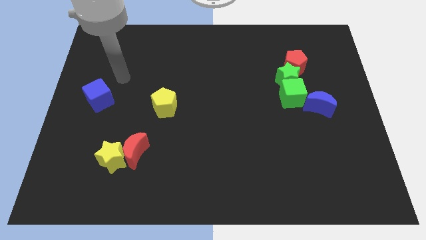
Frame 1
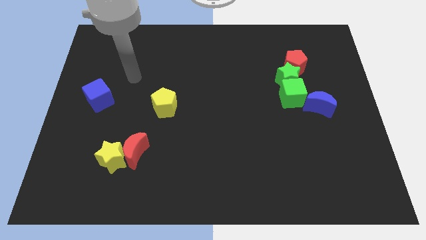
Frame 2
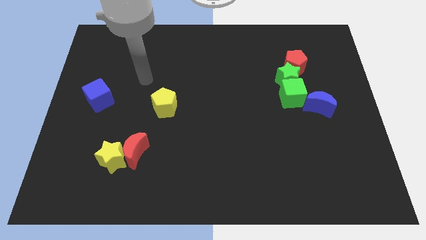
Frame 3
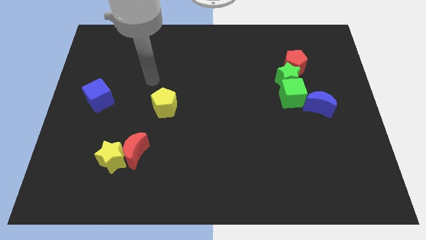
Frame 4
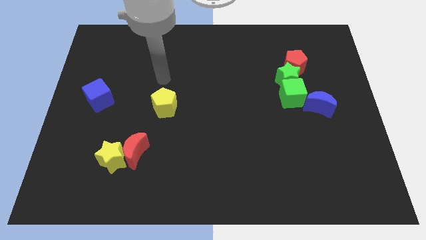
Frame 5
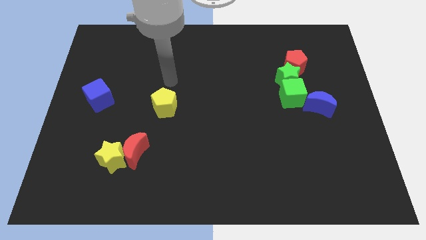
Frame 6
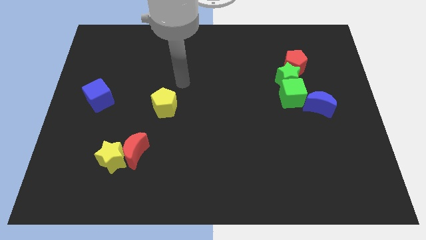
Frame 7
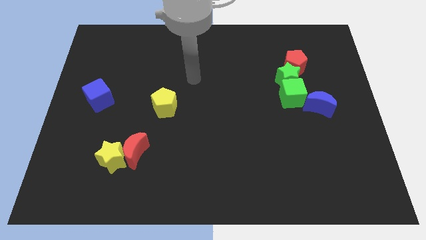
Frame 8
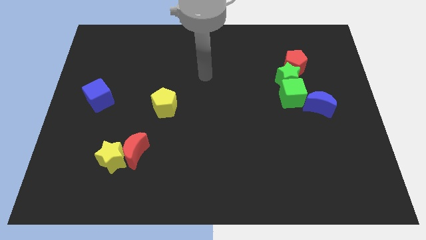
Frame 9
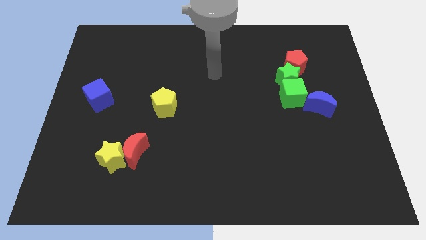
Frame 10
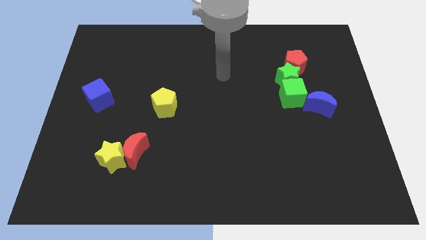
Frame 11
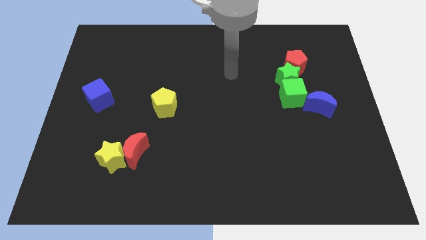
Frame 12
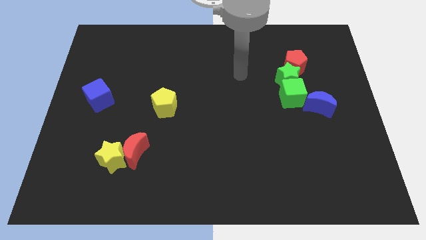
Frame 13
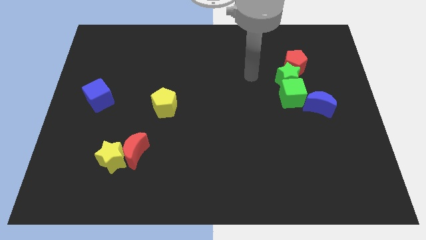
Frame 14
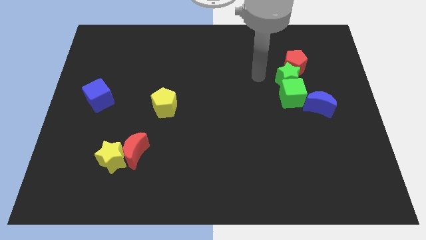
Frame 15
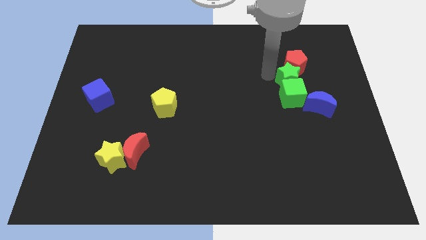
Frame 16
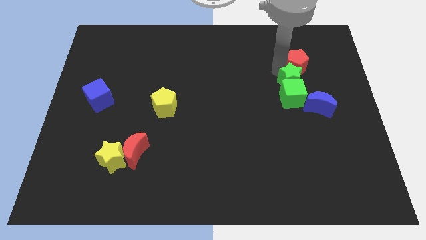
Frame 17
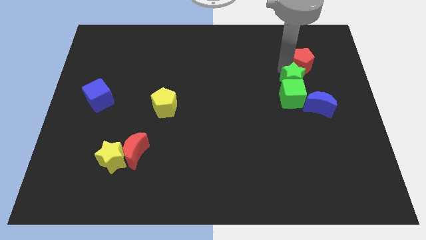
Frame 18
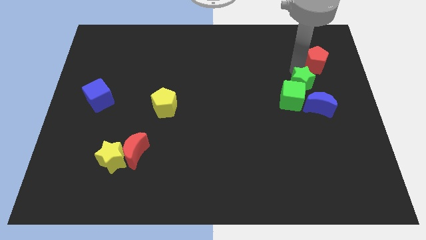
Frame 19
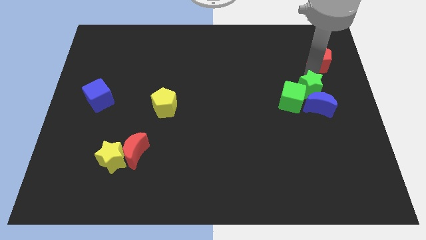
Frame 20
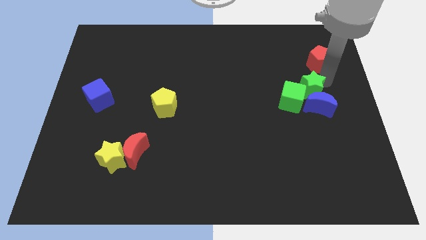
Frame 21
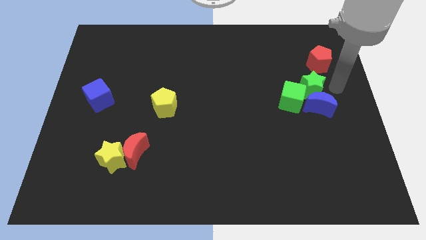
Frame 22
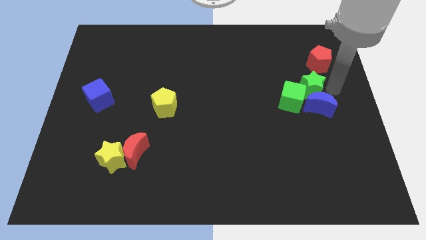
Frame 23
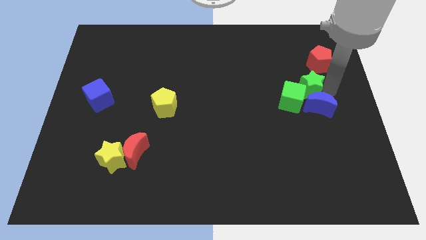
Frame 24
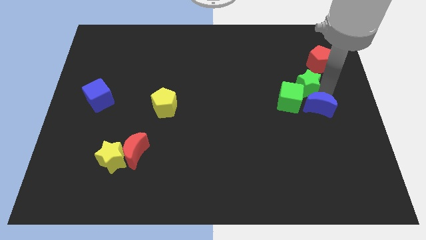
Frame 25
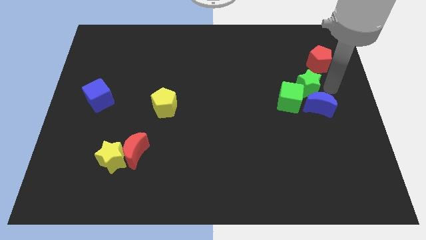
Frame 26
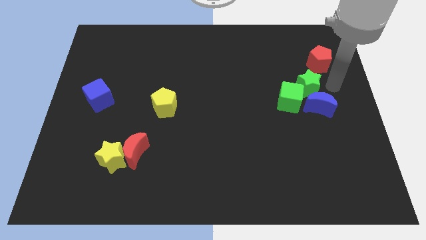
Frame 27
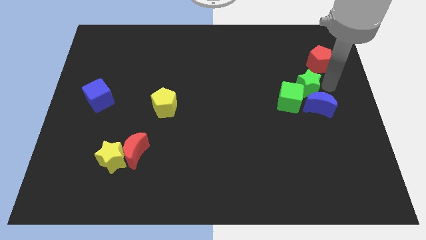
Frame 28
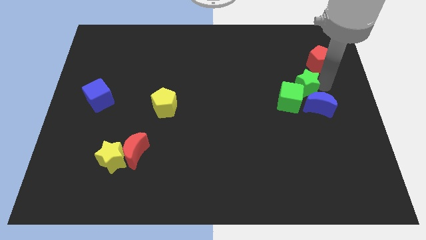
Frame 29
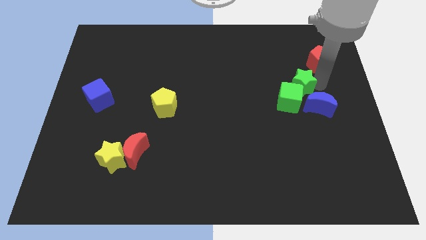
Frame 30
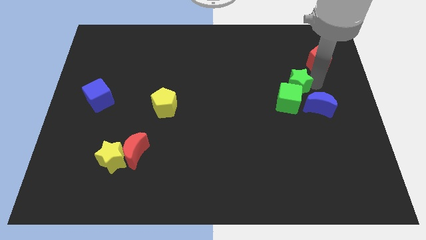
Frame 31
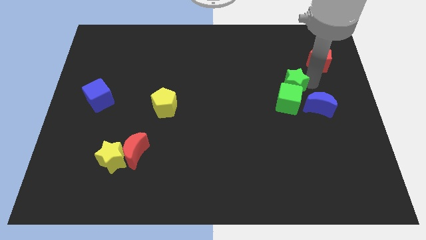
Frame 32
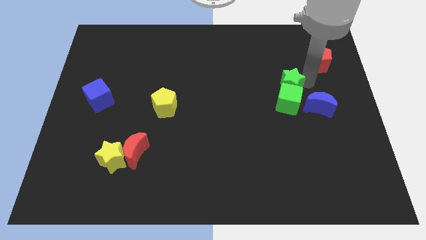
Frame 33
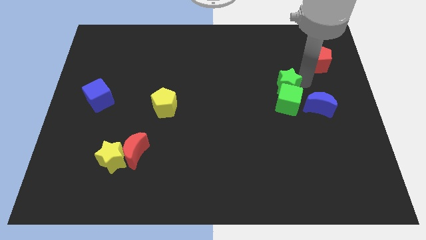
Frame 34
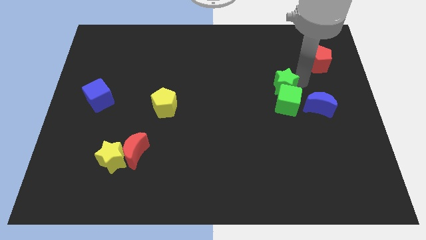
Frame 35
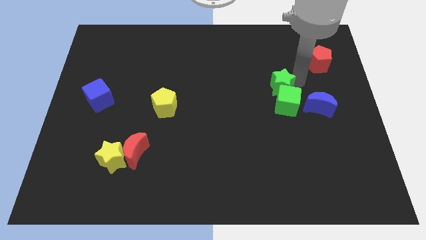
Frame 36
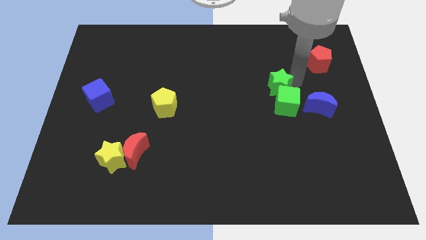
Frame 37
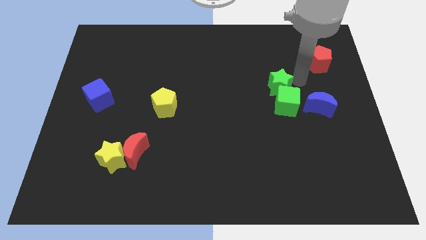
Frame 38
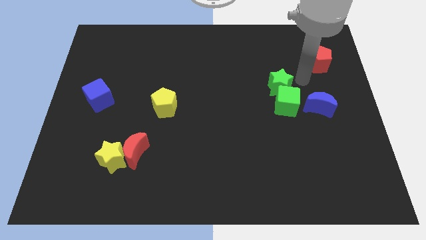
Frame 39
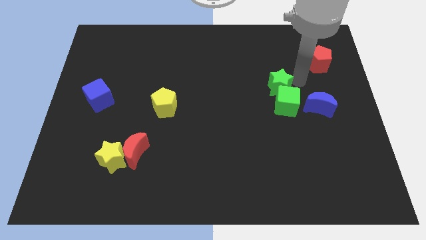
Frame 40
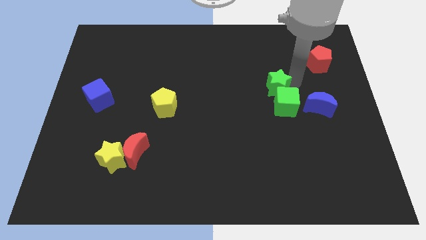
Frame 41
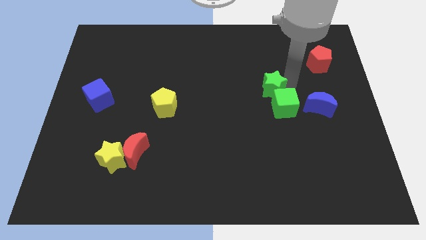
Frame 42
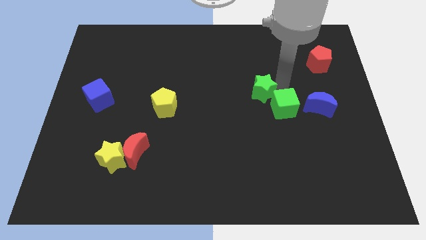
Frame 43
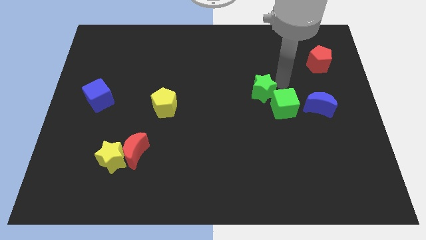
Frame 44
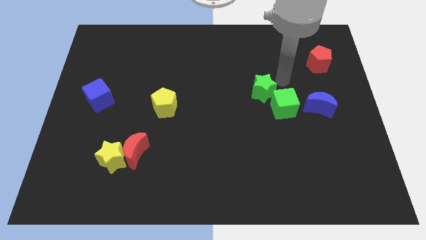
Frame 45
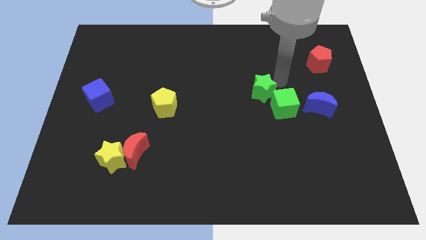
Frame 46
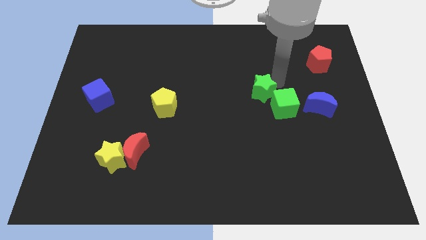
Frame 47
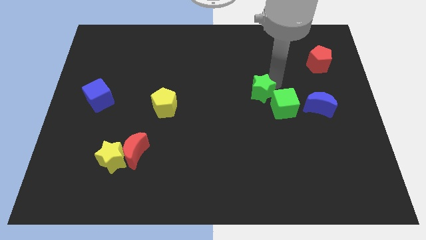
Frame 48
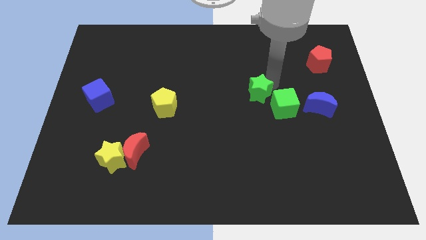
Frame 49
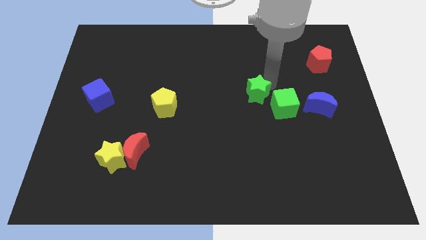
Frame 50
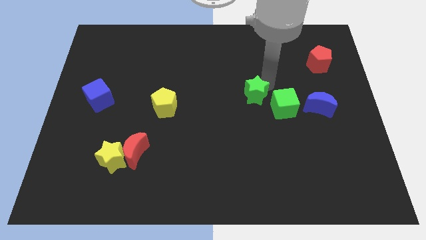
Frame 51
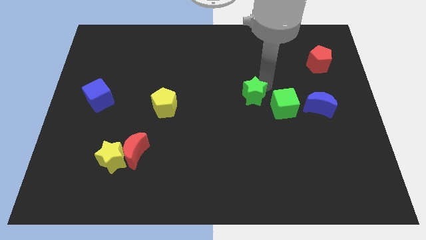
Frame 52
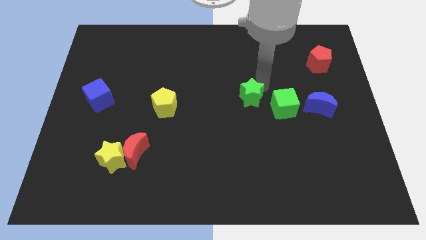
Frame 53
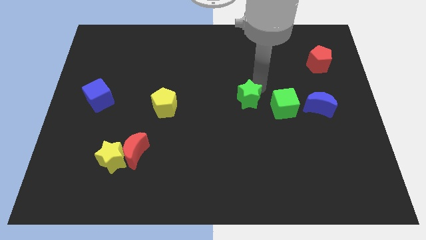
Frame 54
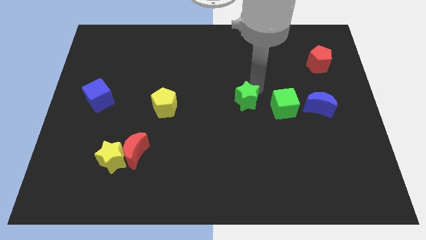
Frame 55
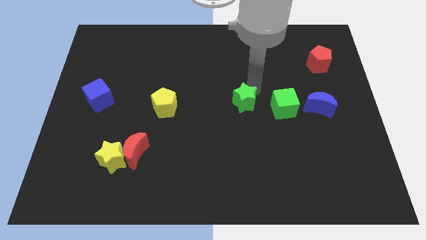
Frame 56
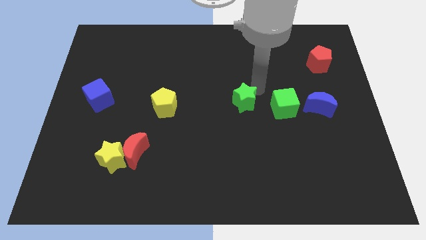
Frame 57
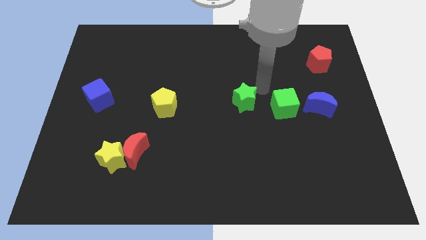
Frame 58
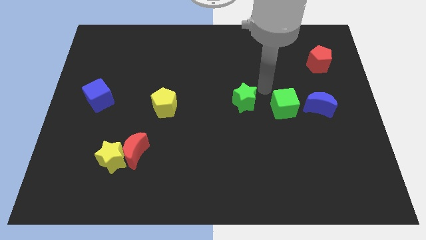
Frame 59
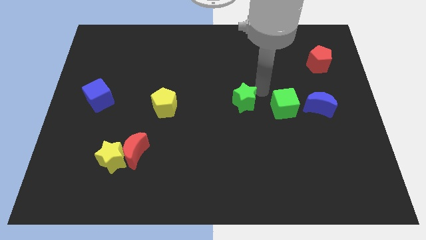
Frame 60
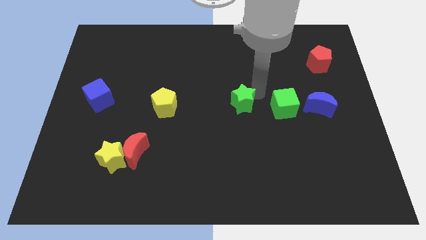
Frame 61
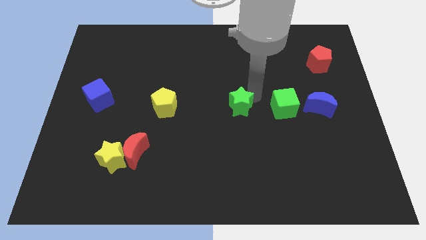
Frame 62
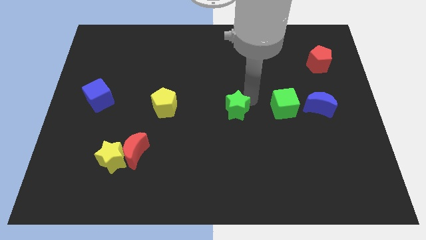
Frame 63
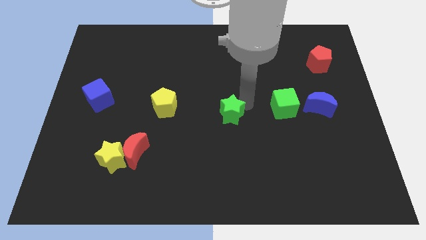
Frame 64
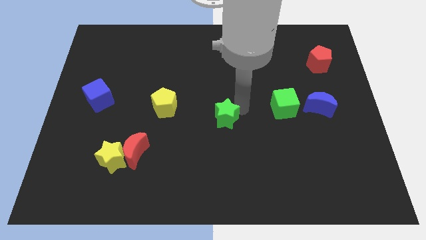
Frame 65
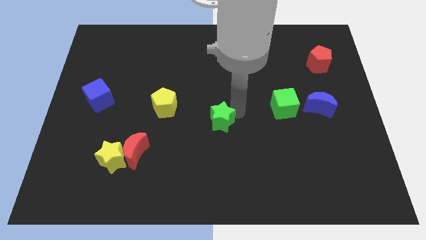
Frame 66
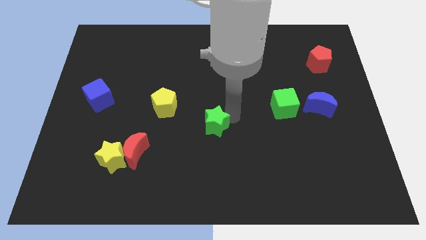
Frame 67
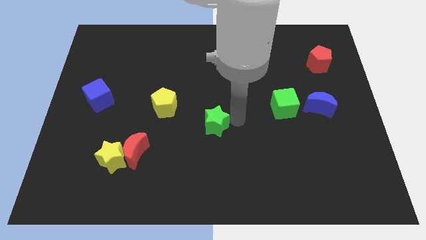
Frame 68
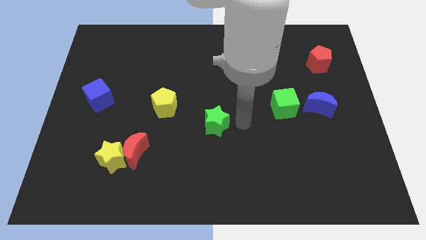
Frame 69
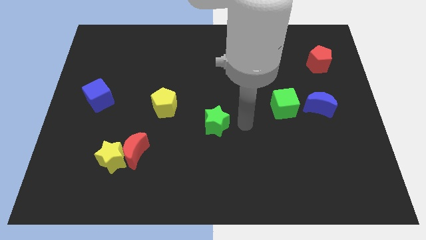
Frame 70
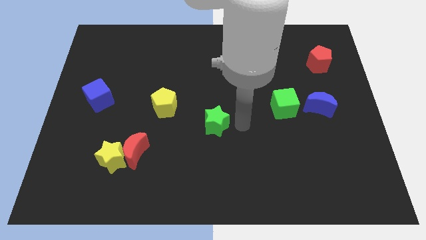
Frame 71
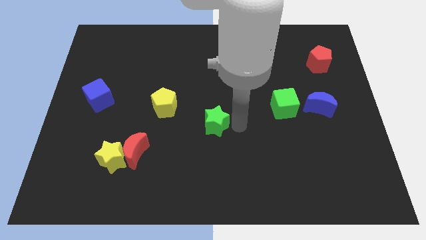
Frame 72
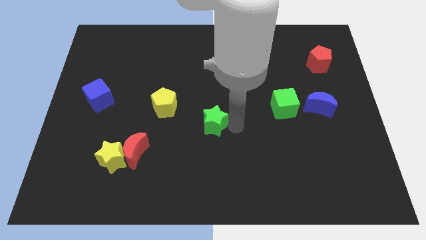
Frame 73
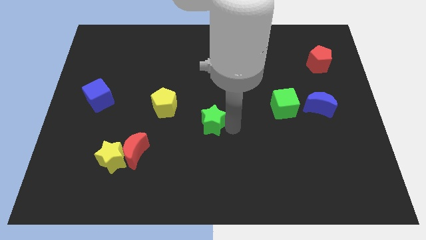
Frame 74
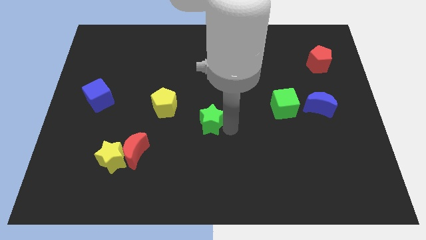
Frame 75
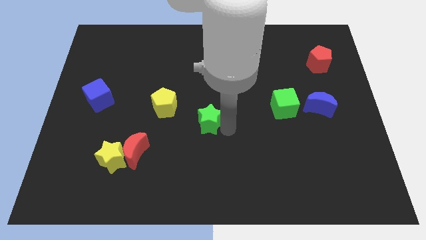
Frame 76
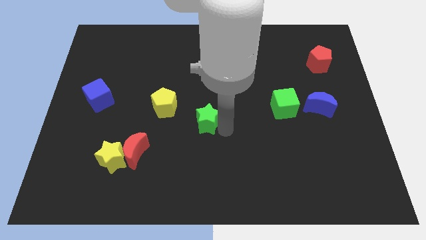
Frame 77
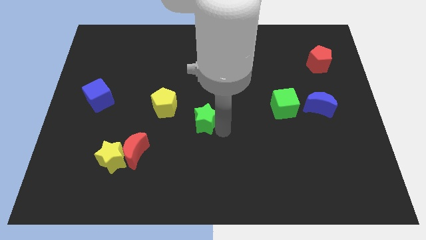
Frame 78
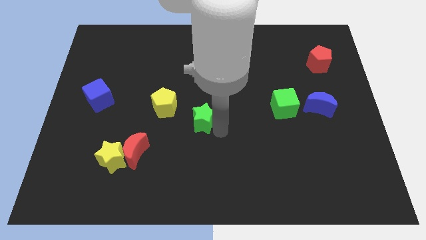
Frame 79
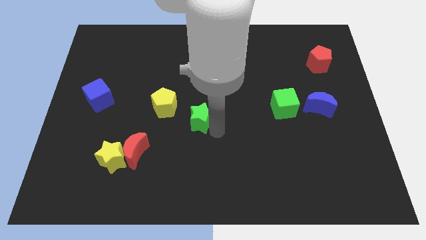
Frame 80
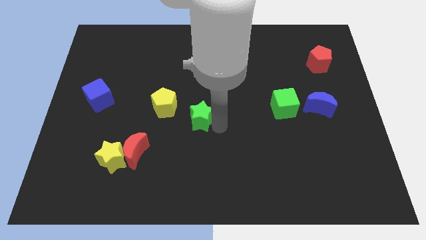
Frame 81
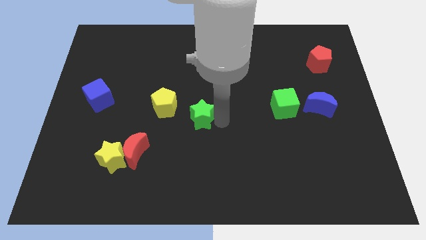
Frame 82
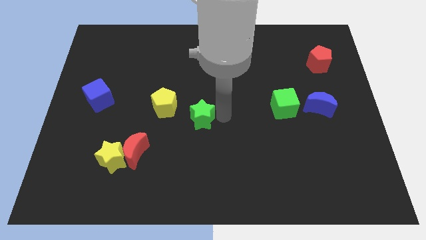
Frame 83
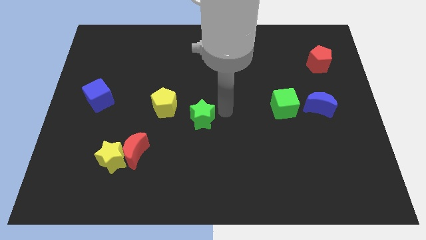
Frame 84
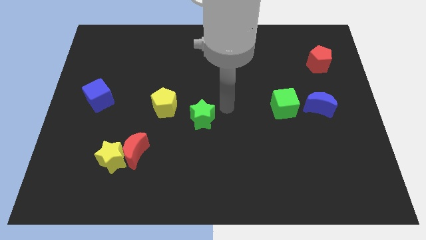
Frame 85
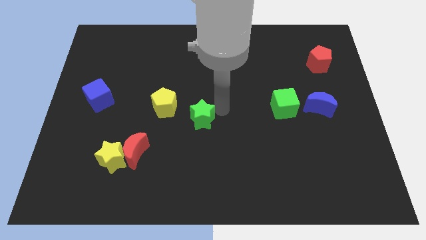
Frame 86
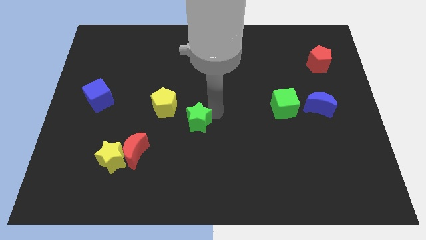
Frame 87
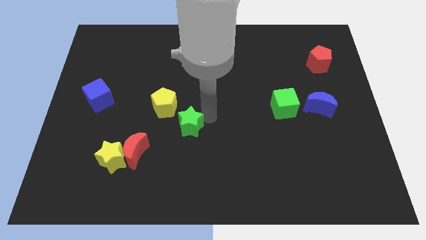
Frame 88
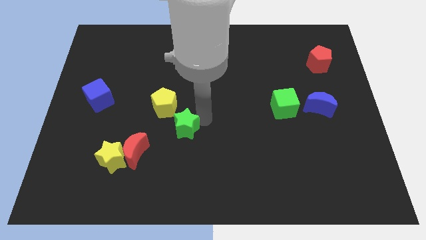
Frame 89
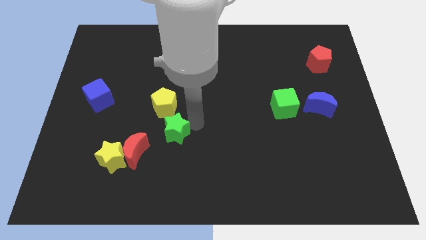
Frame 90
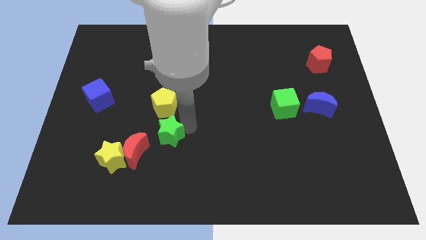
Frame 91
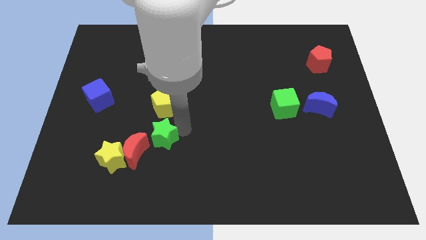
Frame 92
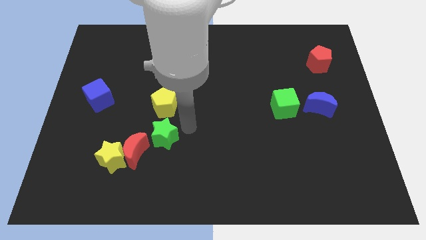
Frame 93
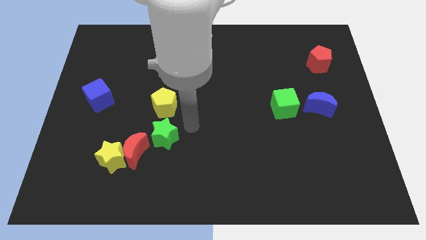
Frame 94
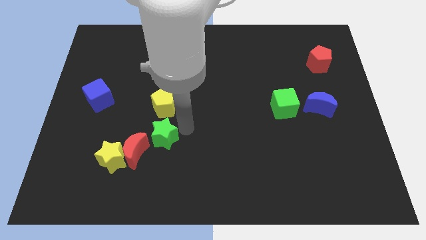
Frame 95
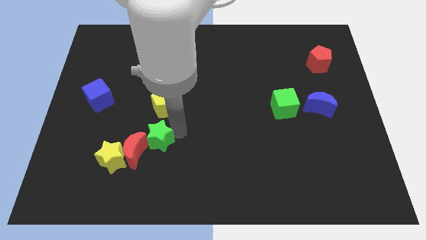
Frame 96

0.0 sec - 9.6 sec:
push the green star next to the red moon
